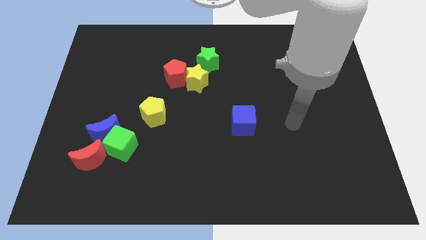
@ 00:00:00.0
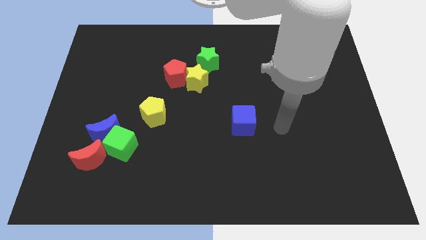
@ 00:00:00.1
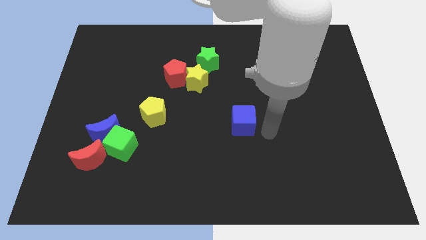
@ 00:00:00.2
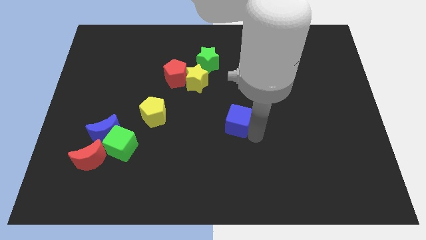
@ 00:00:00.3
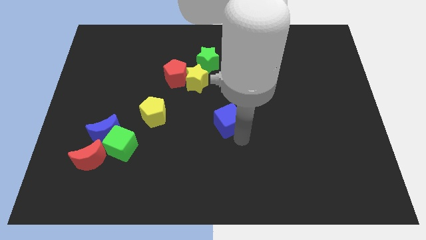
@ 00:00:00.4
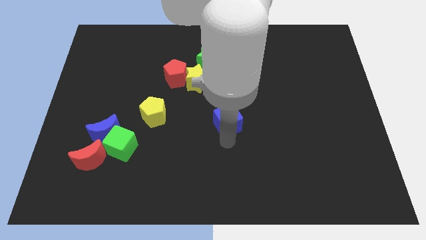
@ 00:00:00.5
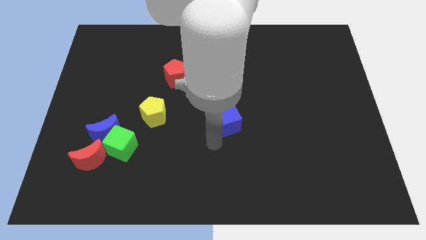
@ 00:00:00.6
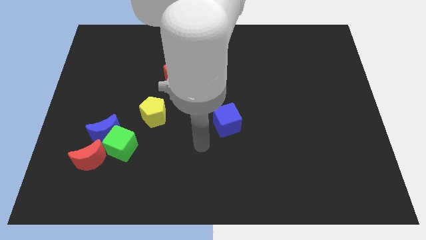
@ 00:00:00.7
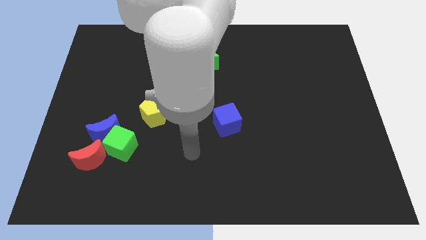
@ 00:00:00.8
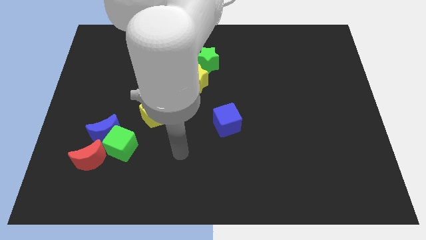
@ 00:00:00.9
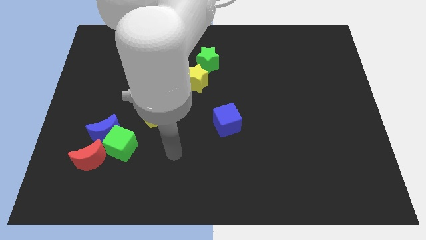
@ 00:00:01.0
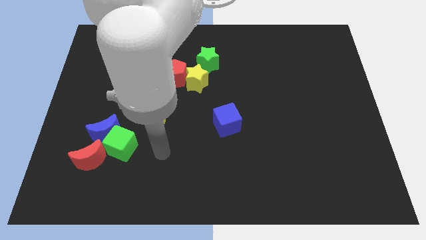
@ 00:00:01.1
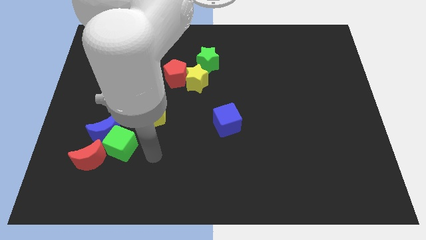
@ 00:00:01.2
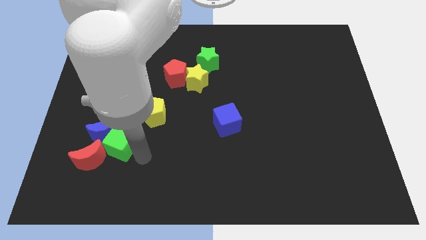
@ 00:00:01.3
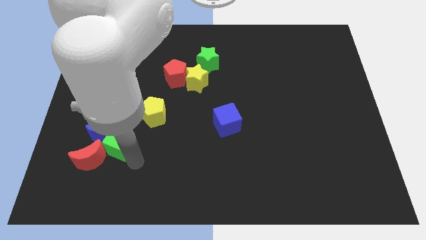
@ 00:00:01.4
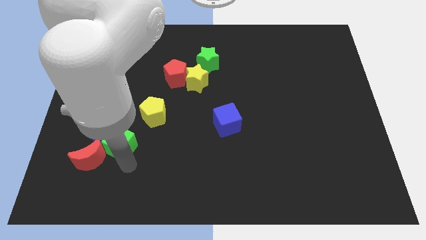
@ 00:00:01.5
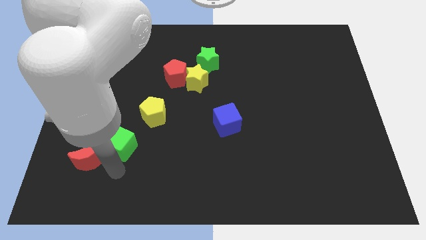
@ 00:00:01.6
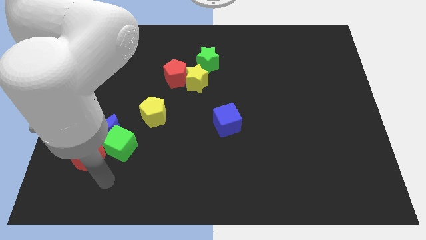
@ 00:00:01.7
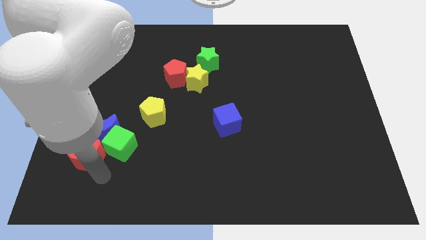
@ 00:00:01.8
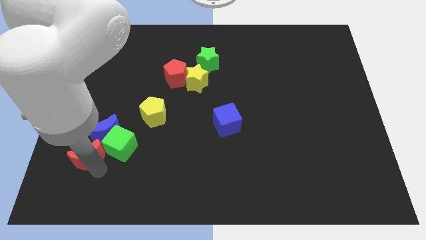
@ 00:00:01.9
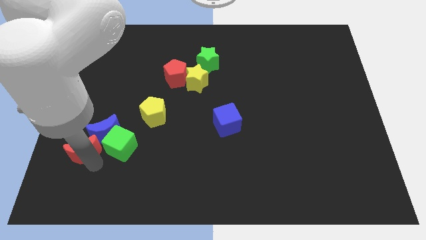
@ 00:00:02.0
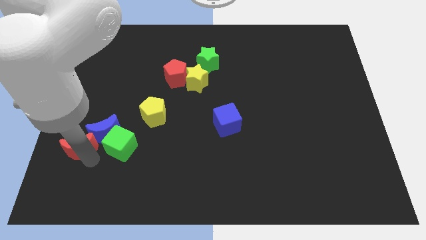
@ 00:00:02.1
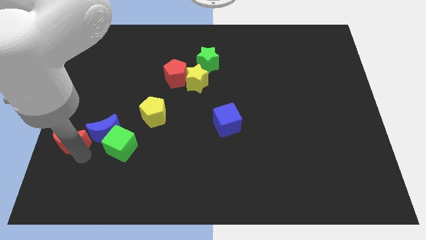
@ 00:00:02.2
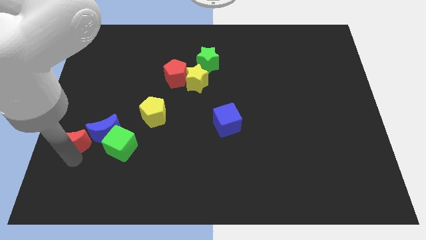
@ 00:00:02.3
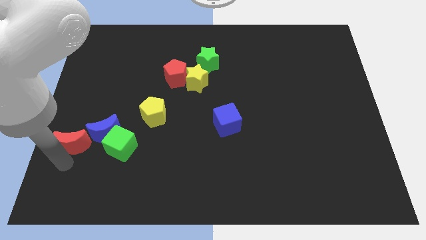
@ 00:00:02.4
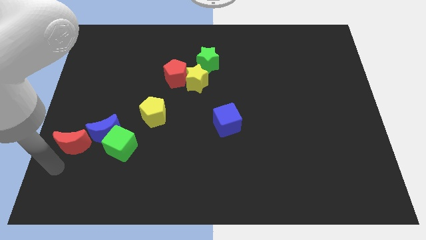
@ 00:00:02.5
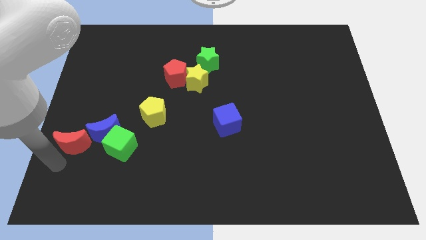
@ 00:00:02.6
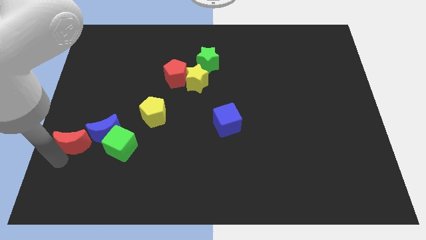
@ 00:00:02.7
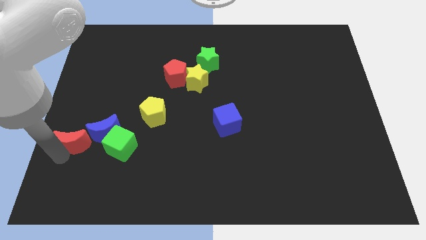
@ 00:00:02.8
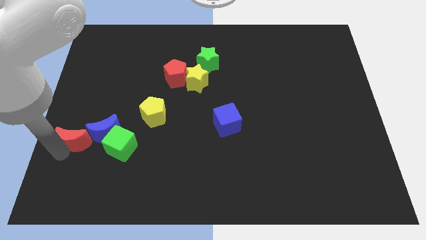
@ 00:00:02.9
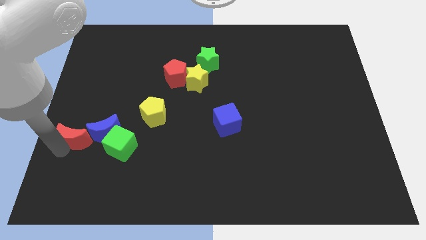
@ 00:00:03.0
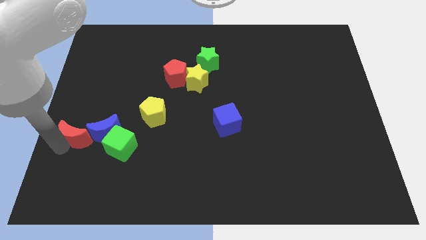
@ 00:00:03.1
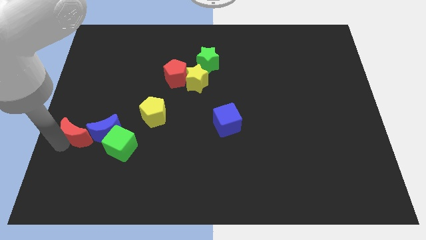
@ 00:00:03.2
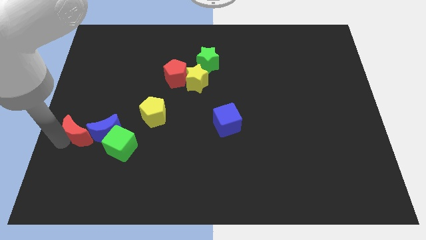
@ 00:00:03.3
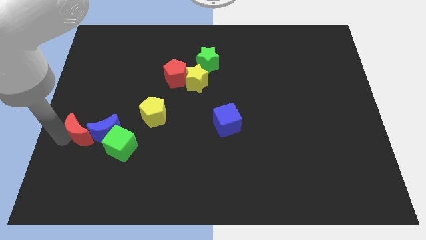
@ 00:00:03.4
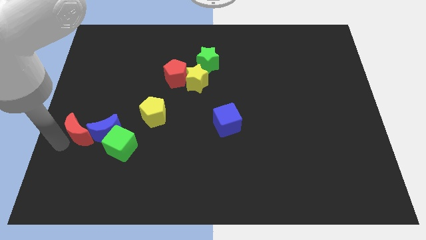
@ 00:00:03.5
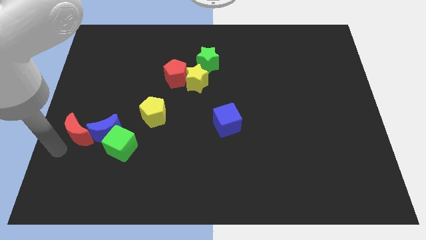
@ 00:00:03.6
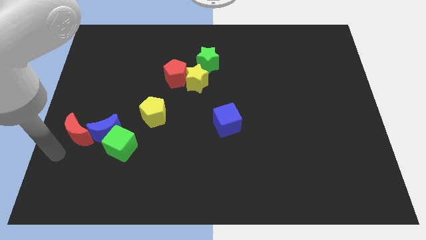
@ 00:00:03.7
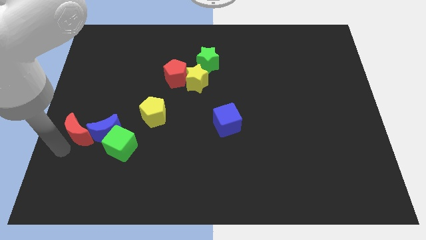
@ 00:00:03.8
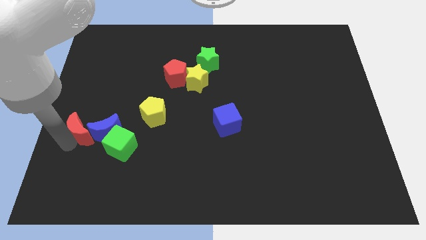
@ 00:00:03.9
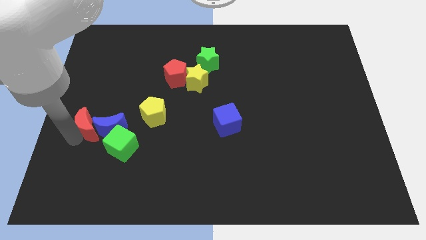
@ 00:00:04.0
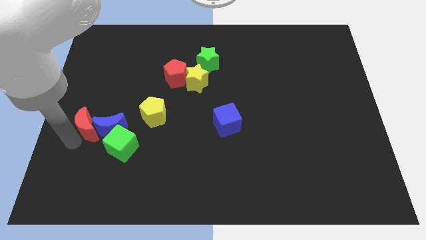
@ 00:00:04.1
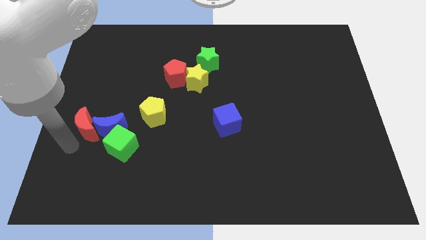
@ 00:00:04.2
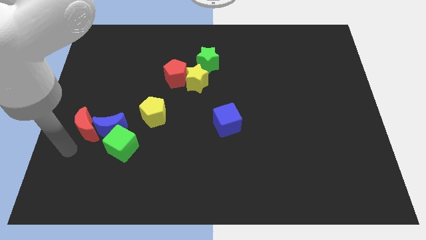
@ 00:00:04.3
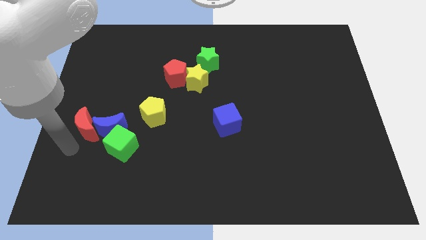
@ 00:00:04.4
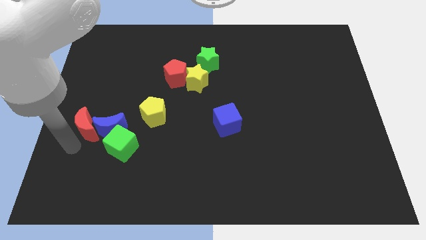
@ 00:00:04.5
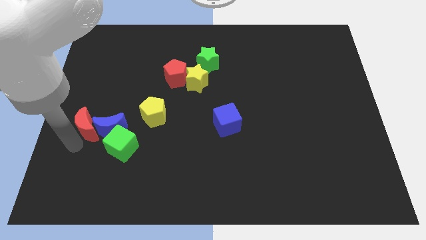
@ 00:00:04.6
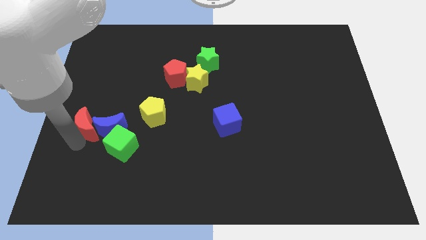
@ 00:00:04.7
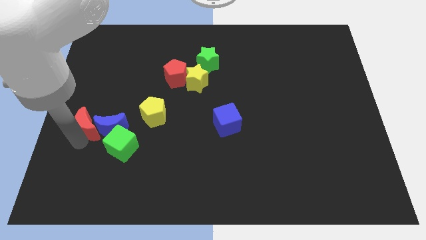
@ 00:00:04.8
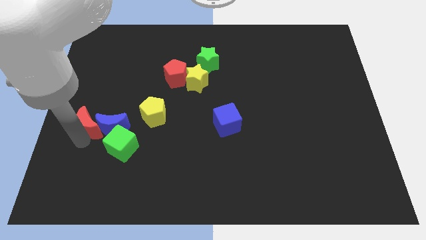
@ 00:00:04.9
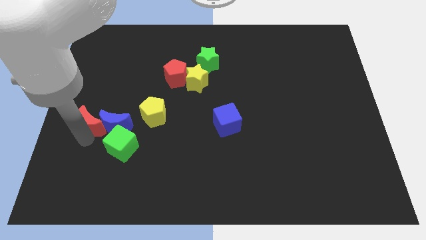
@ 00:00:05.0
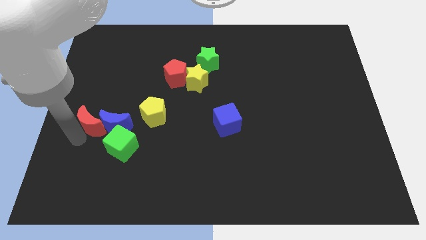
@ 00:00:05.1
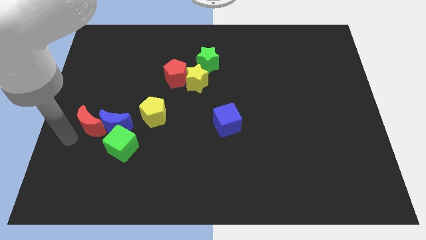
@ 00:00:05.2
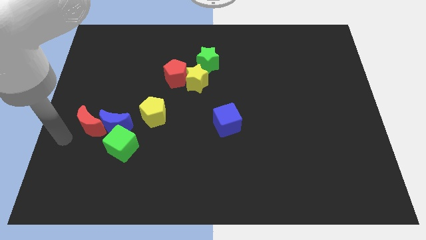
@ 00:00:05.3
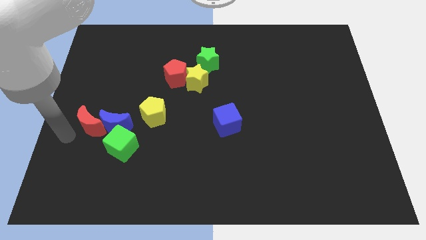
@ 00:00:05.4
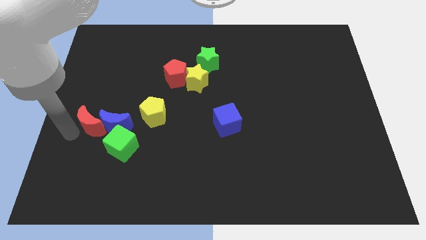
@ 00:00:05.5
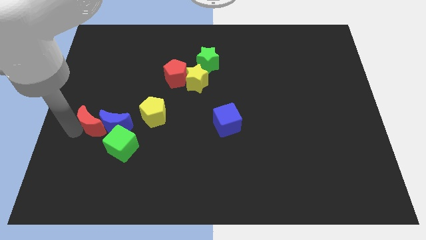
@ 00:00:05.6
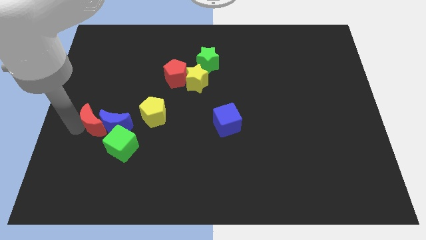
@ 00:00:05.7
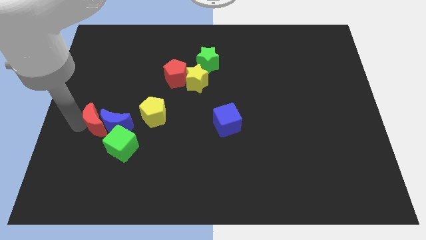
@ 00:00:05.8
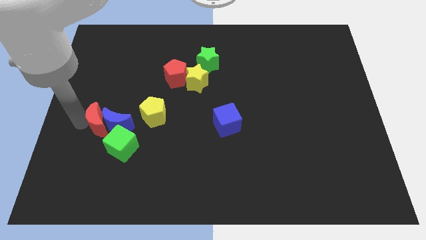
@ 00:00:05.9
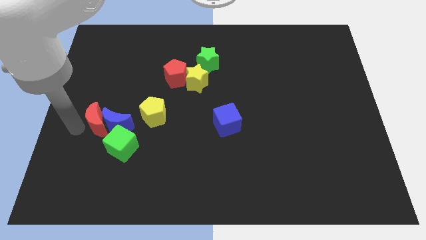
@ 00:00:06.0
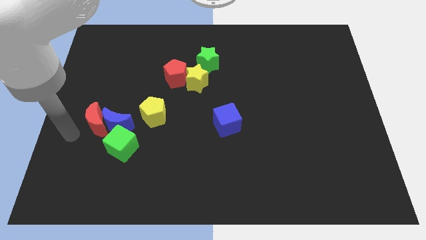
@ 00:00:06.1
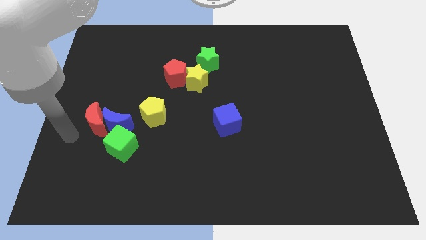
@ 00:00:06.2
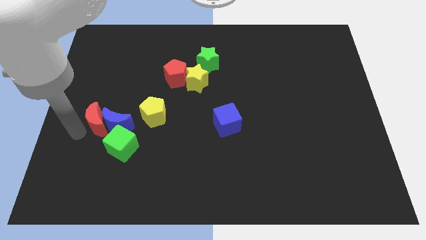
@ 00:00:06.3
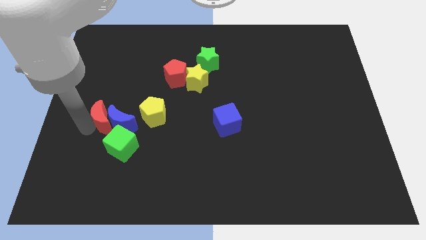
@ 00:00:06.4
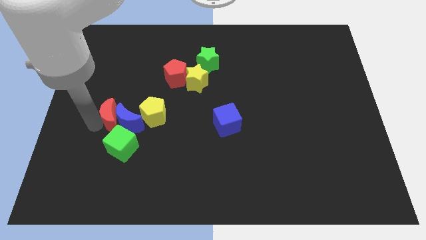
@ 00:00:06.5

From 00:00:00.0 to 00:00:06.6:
push the red moon above the green cube

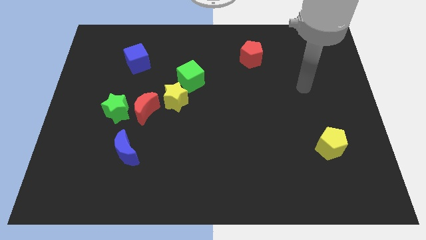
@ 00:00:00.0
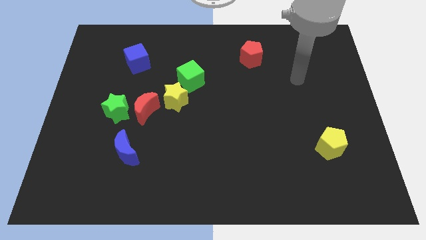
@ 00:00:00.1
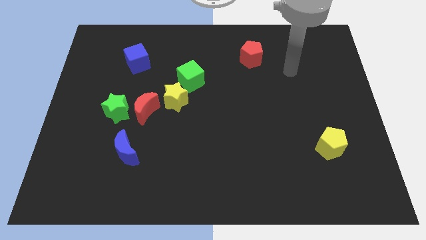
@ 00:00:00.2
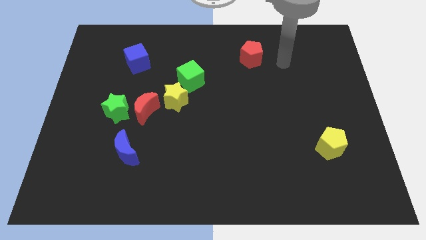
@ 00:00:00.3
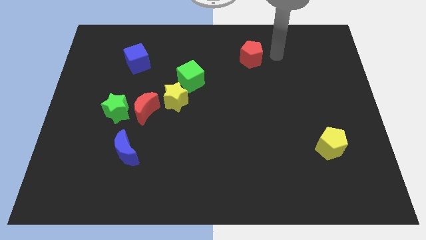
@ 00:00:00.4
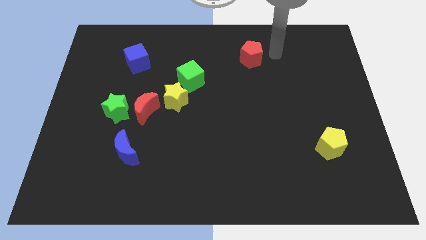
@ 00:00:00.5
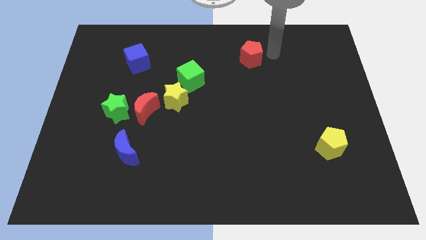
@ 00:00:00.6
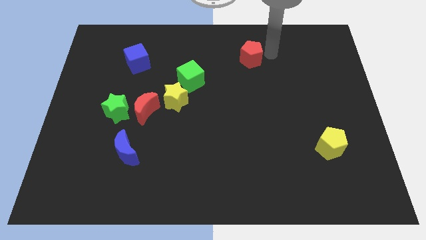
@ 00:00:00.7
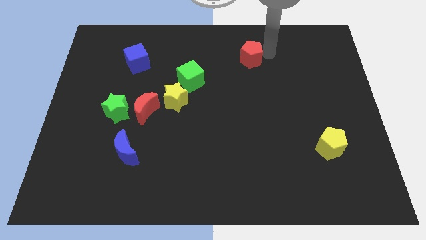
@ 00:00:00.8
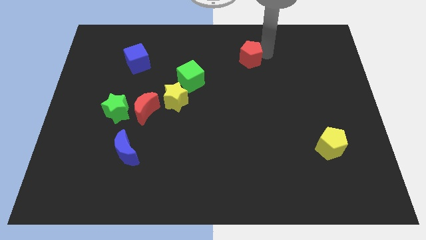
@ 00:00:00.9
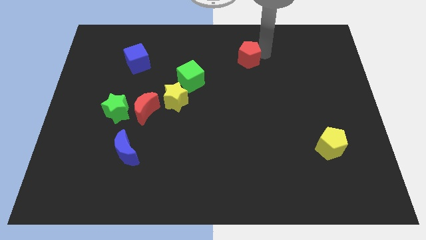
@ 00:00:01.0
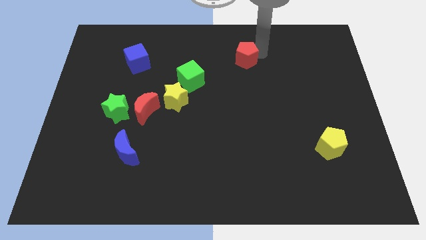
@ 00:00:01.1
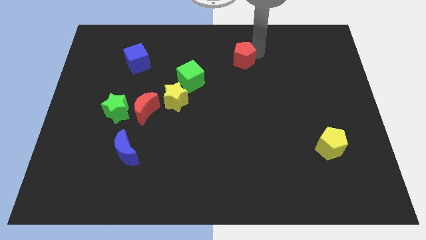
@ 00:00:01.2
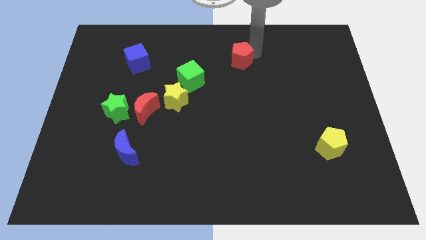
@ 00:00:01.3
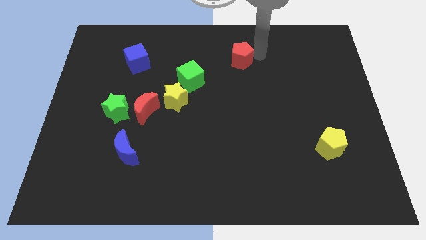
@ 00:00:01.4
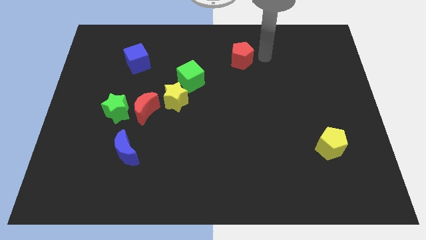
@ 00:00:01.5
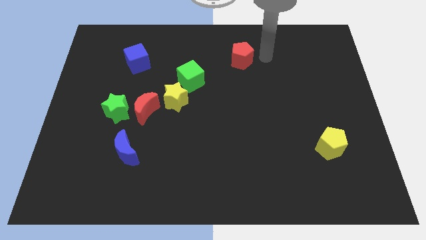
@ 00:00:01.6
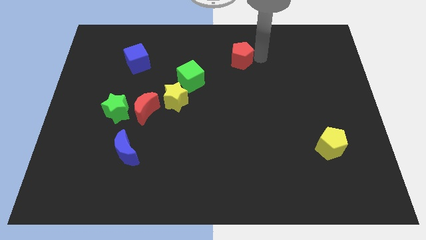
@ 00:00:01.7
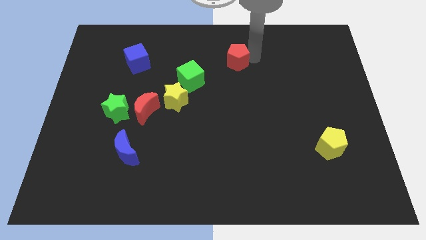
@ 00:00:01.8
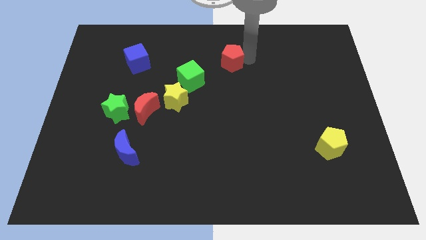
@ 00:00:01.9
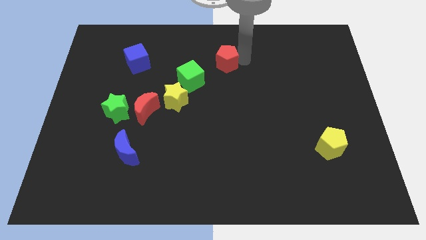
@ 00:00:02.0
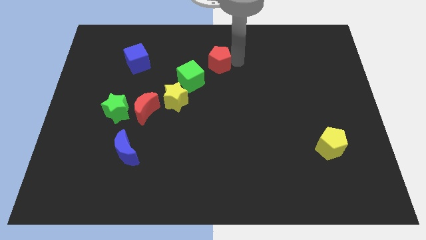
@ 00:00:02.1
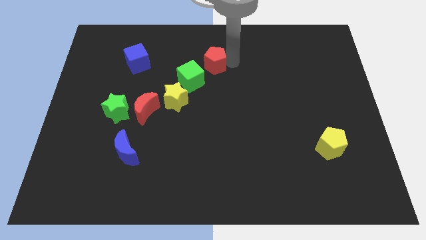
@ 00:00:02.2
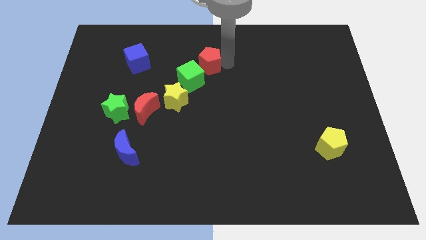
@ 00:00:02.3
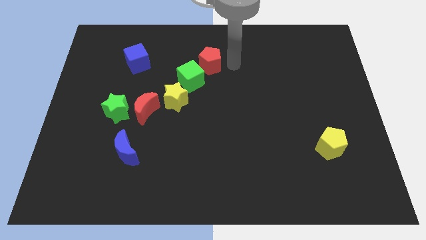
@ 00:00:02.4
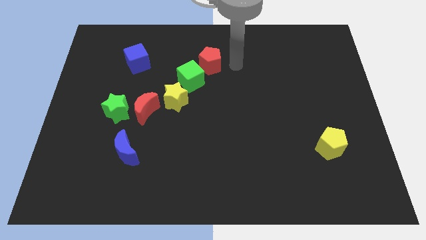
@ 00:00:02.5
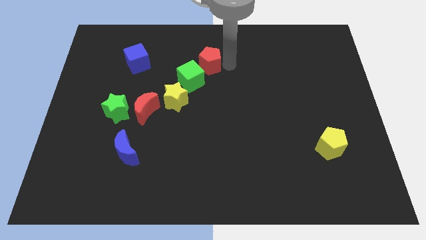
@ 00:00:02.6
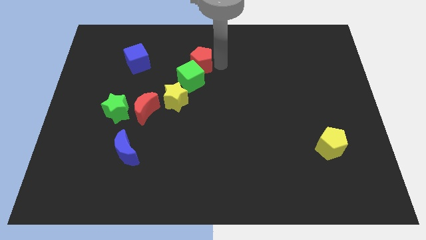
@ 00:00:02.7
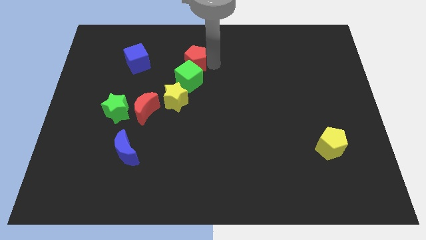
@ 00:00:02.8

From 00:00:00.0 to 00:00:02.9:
put the red pentagon to the right of the blue cube
